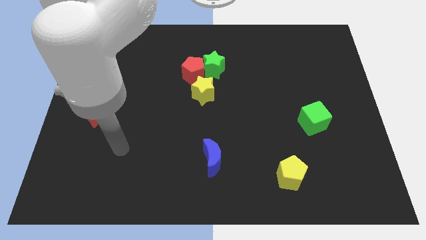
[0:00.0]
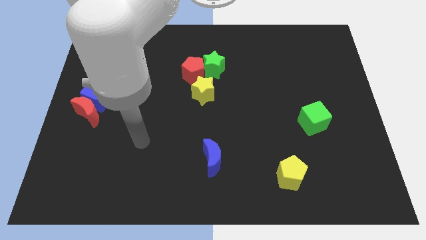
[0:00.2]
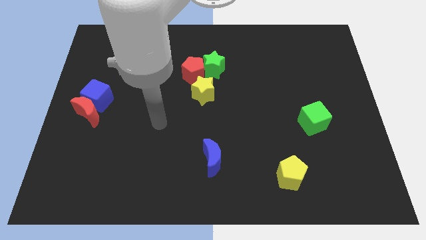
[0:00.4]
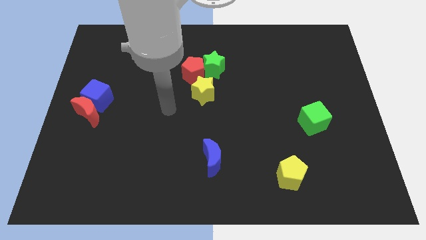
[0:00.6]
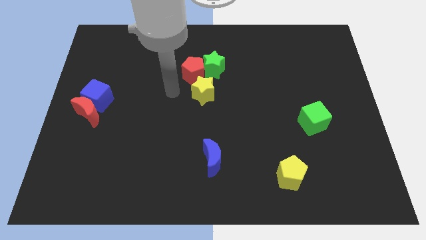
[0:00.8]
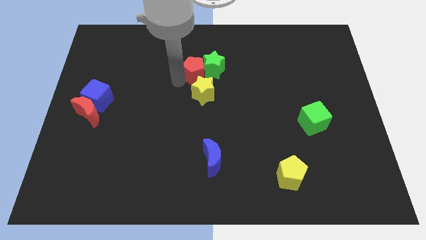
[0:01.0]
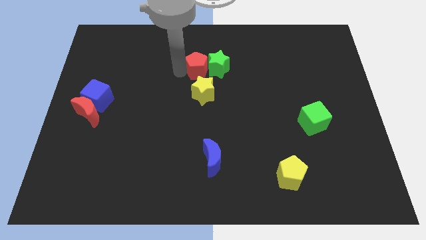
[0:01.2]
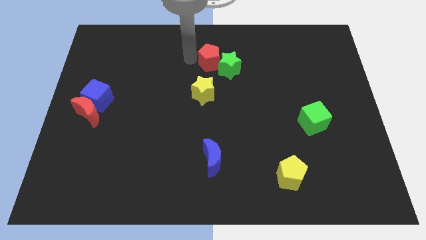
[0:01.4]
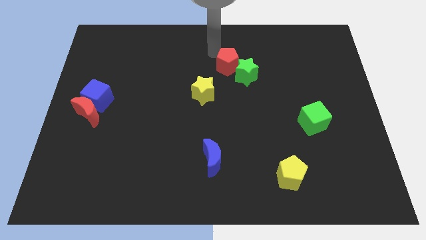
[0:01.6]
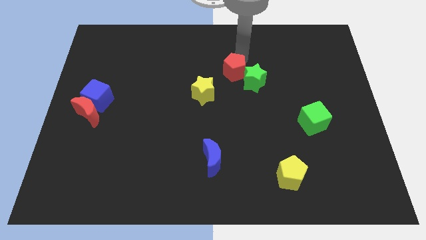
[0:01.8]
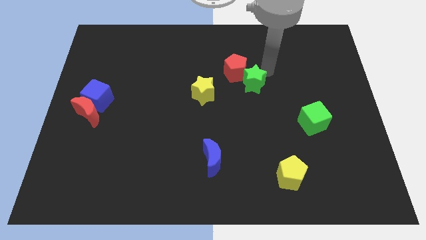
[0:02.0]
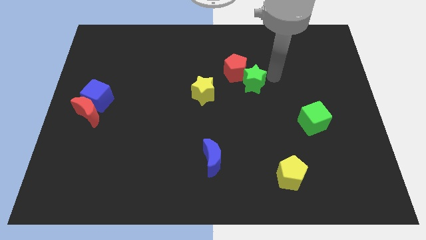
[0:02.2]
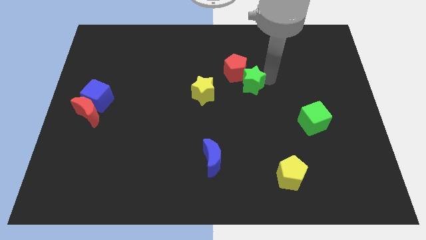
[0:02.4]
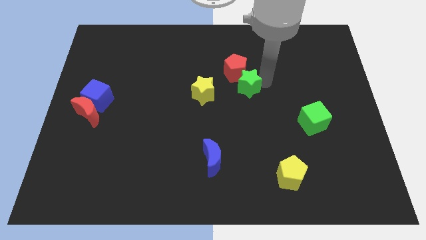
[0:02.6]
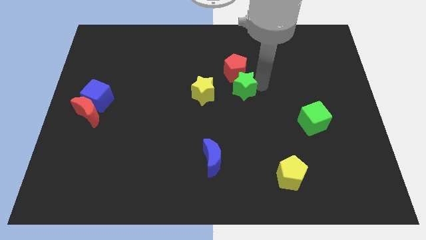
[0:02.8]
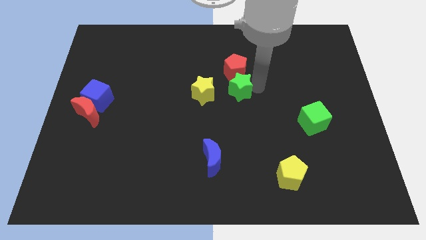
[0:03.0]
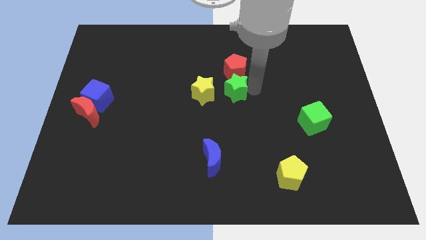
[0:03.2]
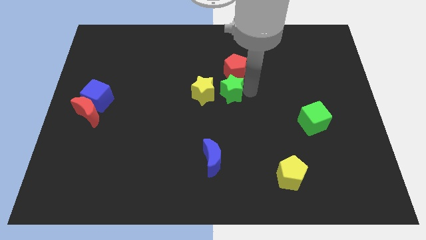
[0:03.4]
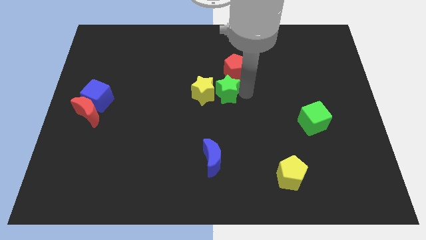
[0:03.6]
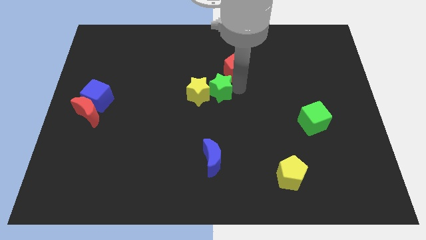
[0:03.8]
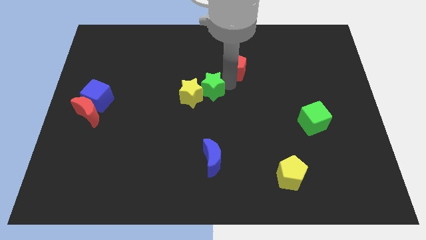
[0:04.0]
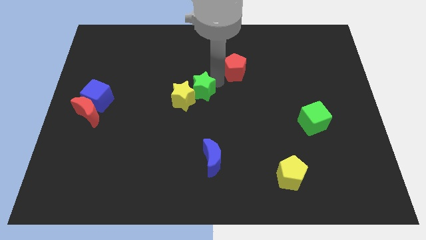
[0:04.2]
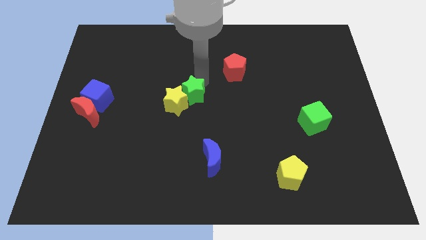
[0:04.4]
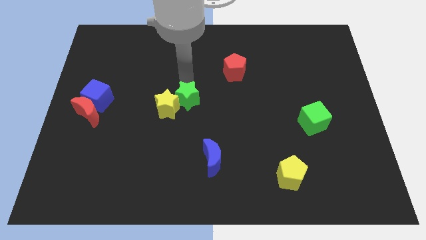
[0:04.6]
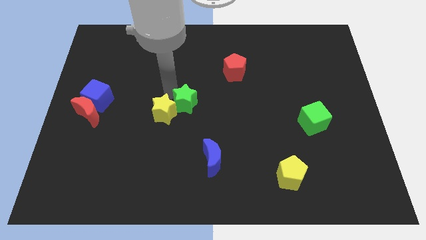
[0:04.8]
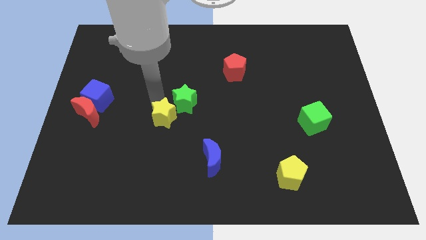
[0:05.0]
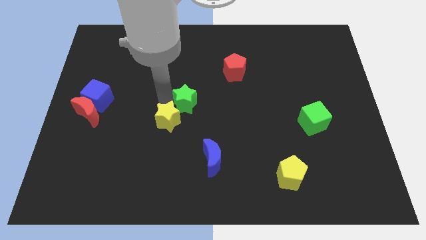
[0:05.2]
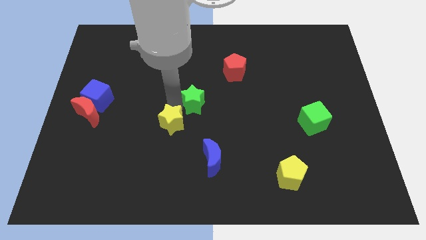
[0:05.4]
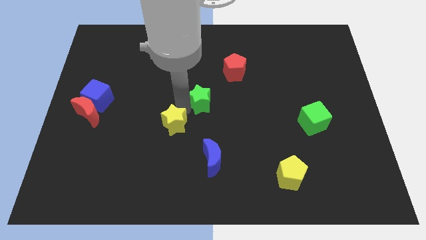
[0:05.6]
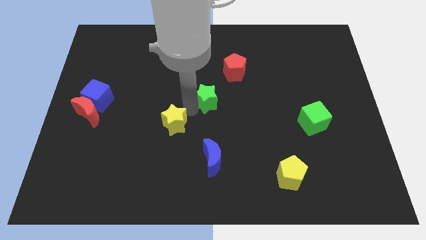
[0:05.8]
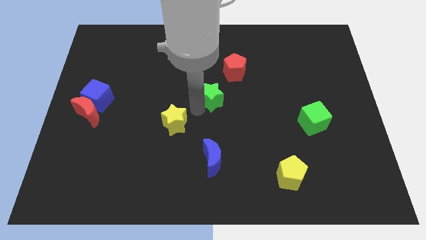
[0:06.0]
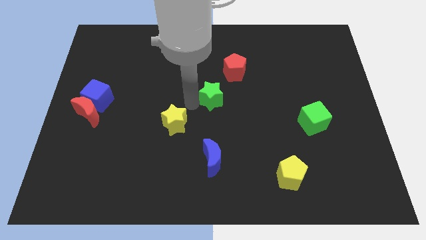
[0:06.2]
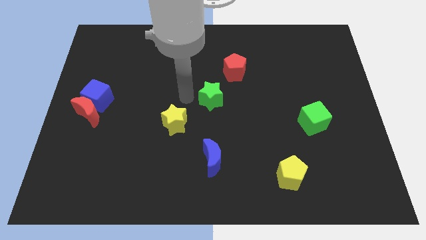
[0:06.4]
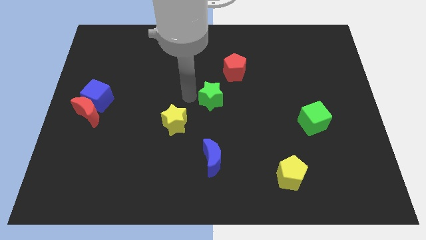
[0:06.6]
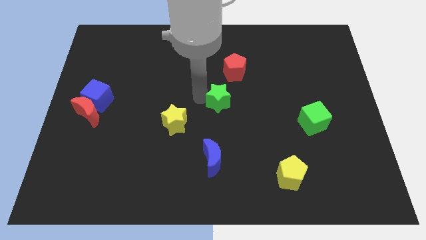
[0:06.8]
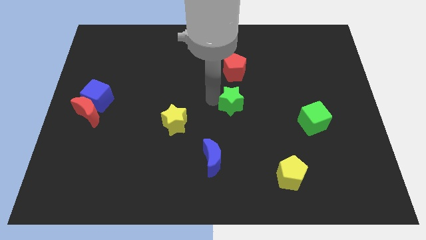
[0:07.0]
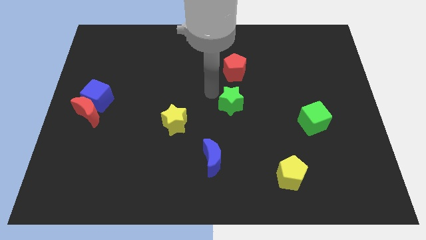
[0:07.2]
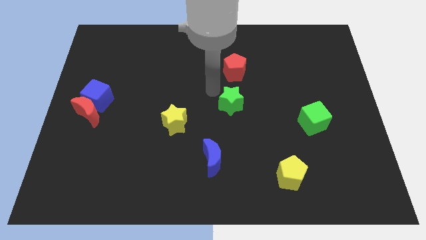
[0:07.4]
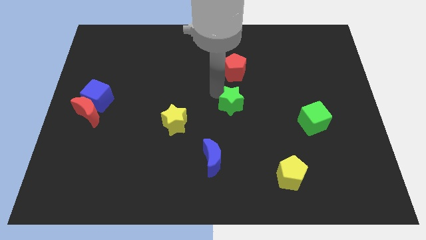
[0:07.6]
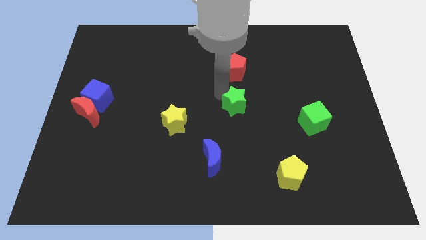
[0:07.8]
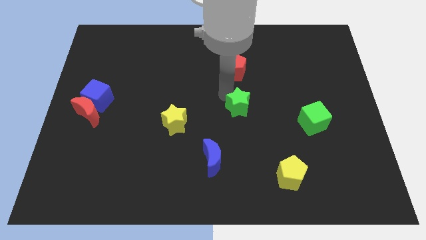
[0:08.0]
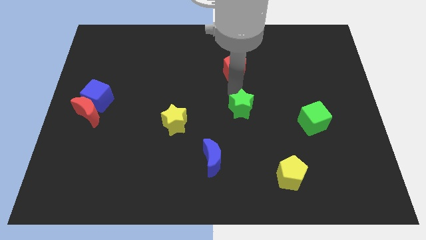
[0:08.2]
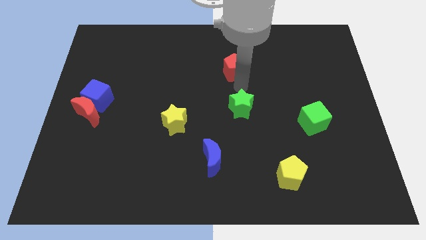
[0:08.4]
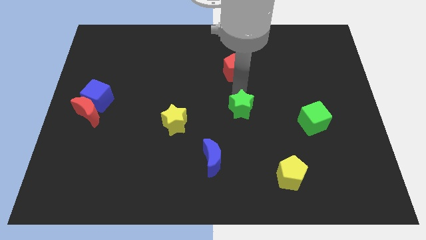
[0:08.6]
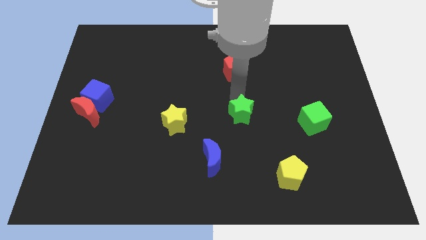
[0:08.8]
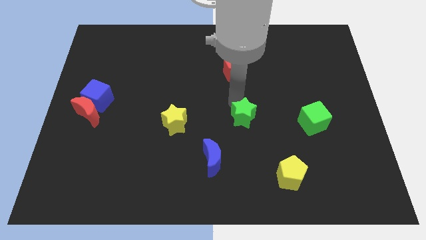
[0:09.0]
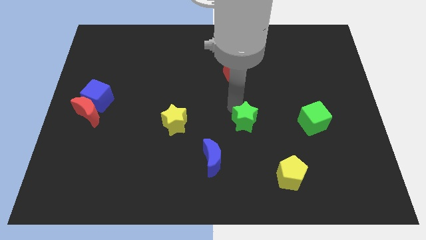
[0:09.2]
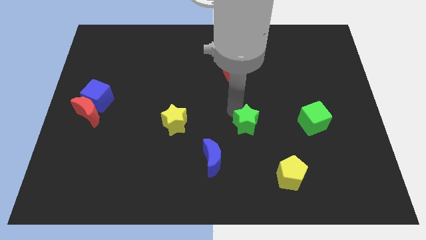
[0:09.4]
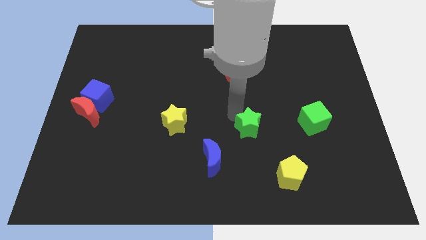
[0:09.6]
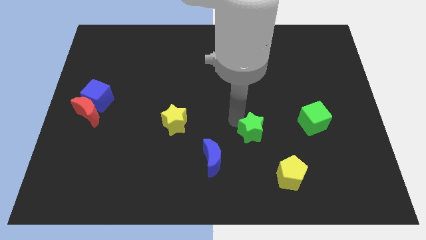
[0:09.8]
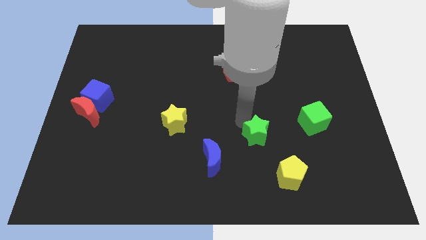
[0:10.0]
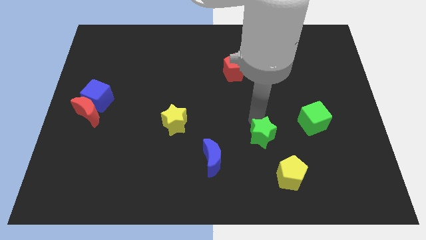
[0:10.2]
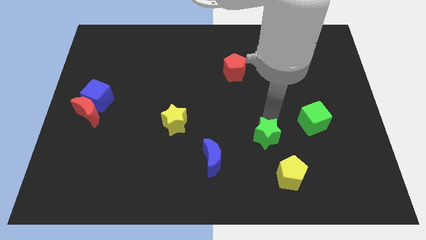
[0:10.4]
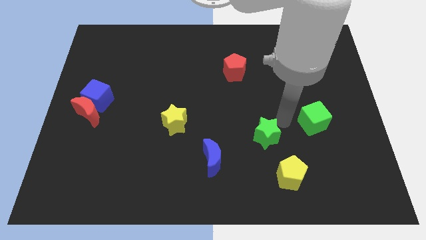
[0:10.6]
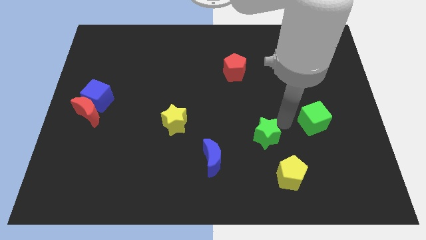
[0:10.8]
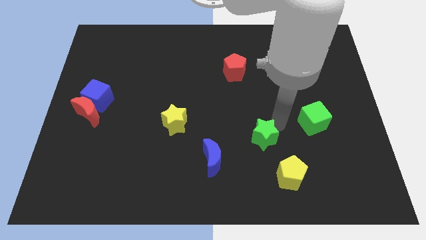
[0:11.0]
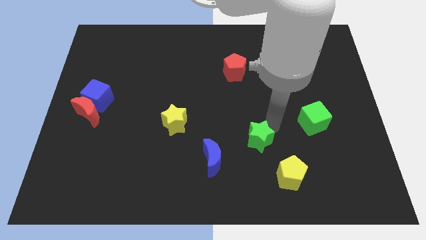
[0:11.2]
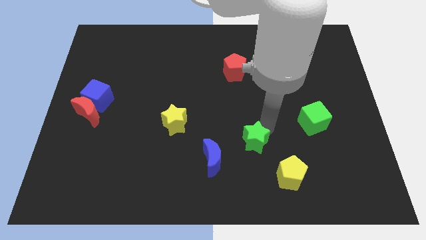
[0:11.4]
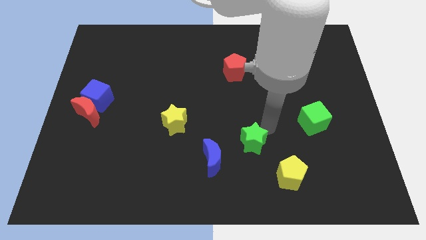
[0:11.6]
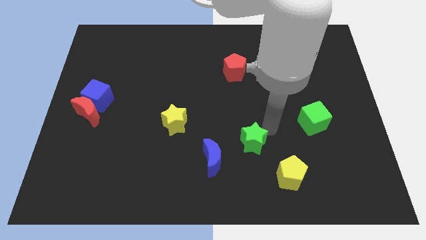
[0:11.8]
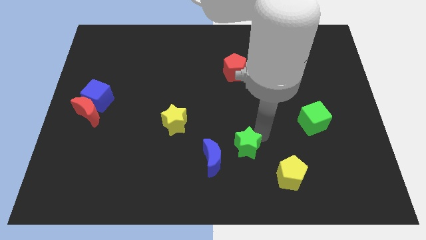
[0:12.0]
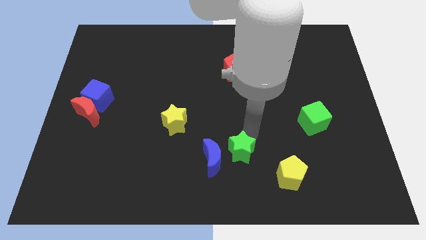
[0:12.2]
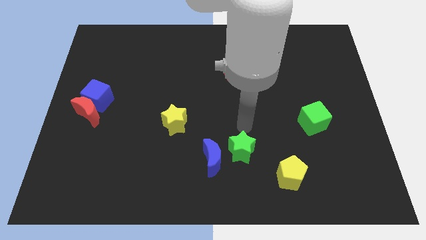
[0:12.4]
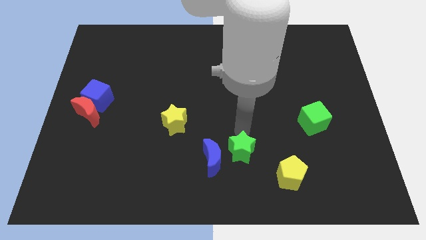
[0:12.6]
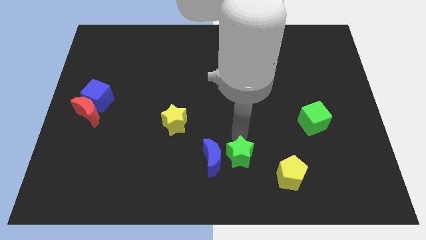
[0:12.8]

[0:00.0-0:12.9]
move the green star to the bottom side
